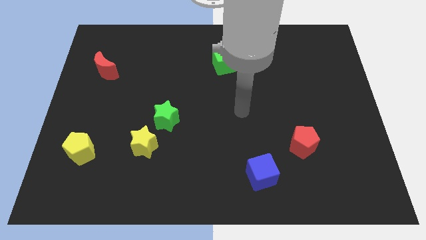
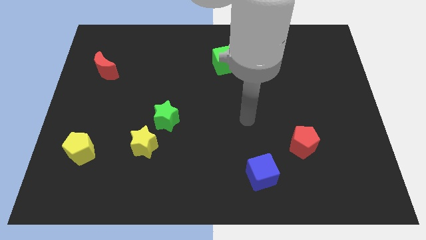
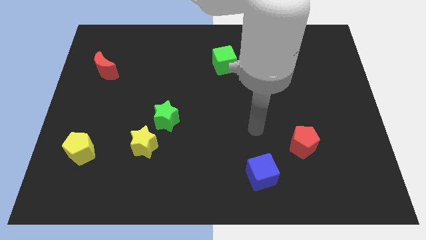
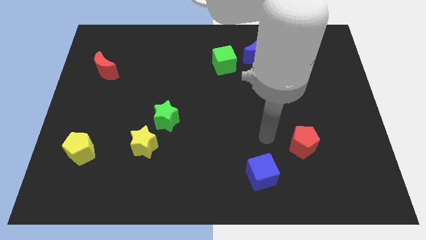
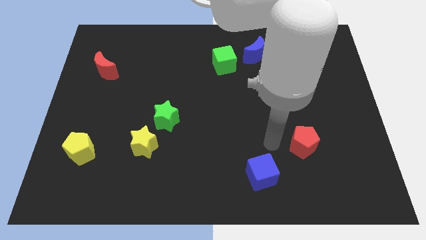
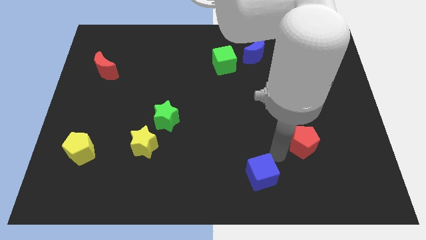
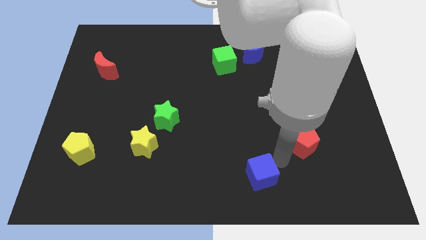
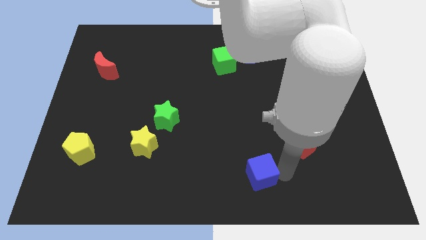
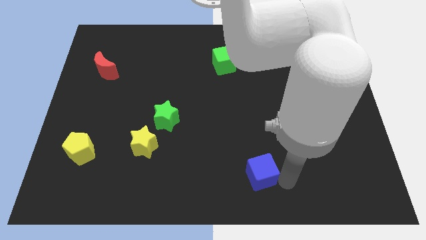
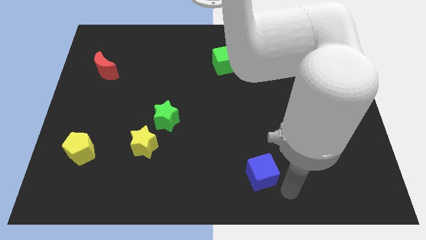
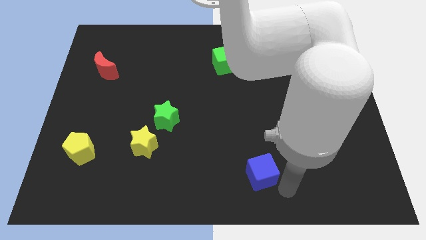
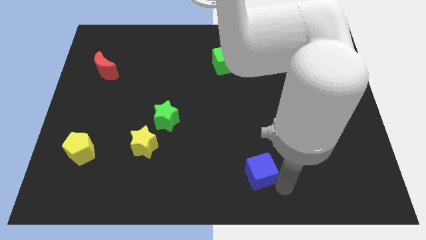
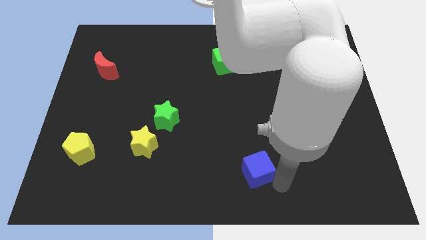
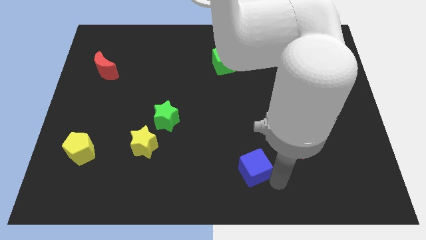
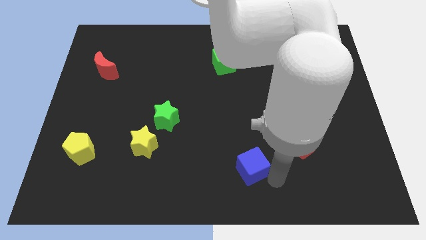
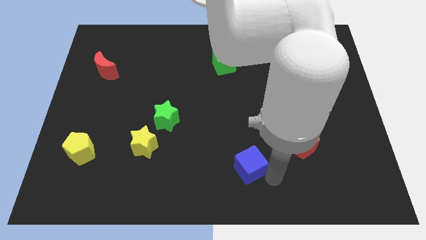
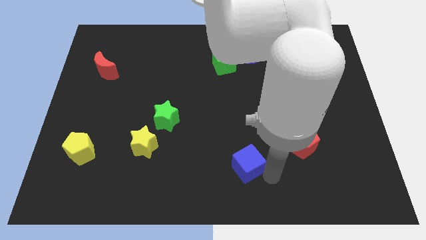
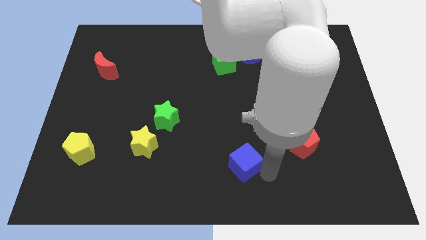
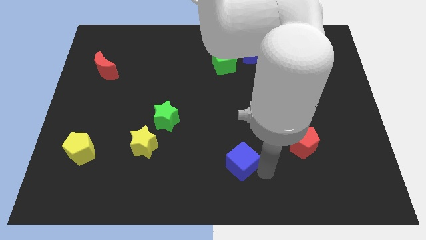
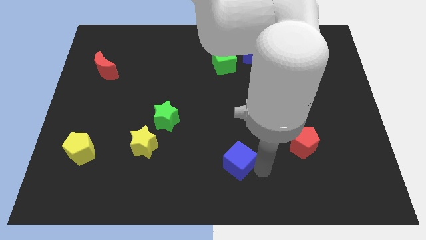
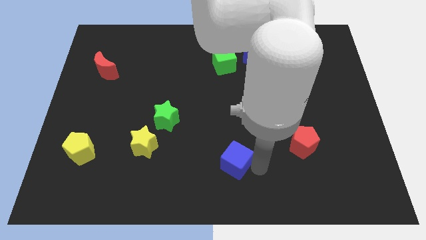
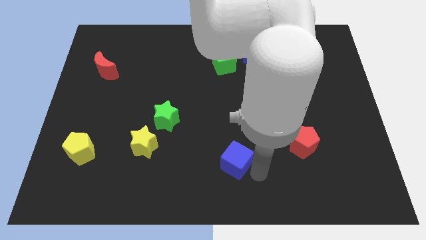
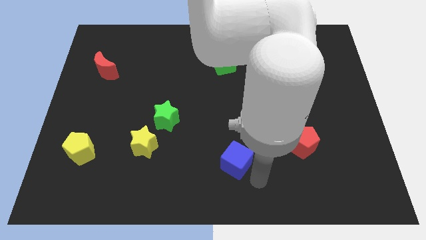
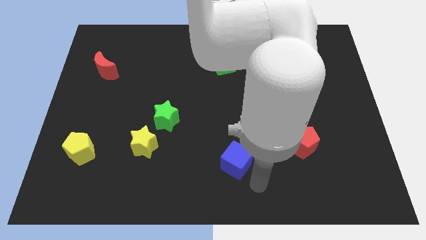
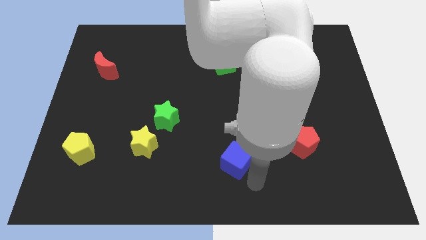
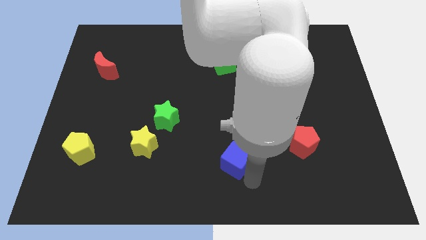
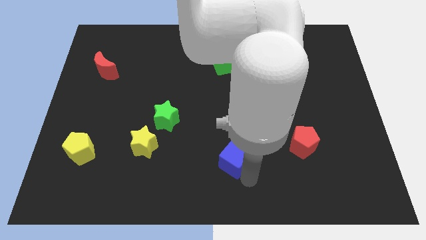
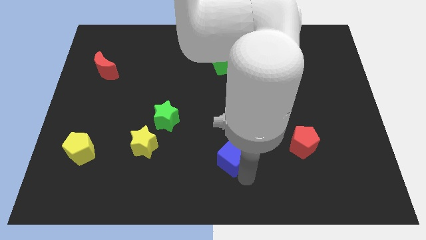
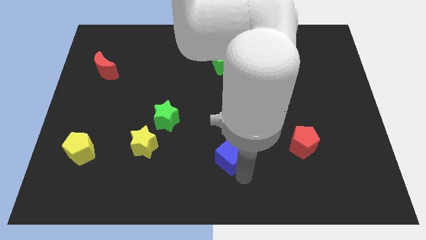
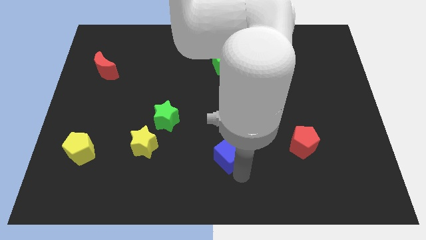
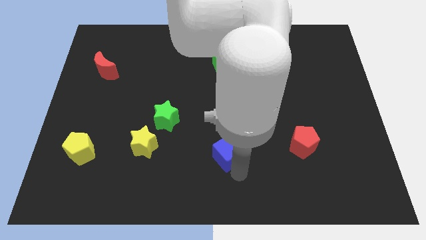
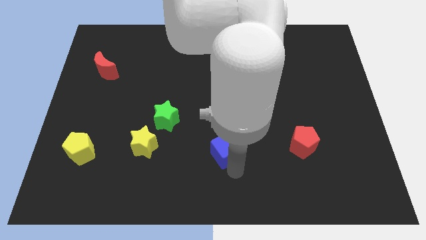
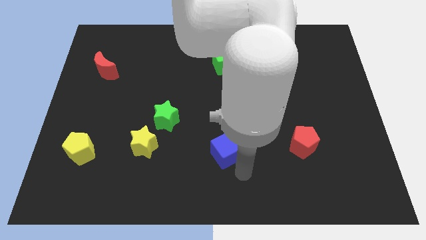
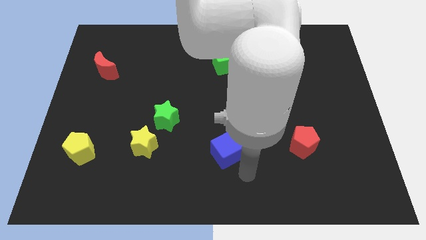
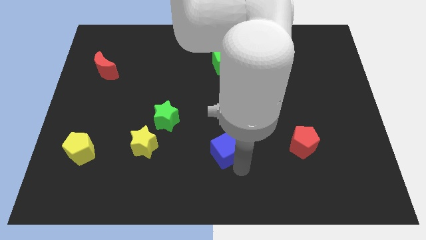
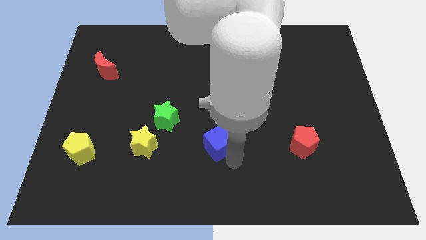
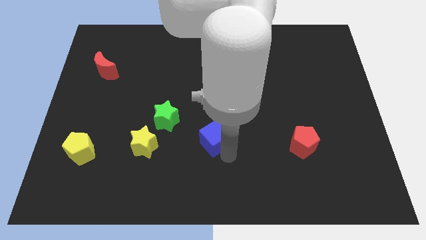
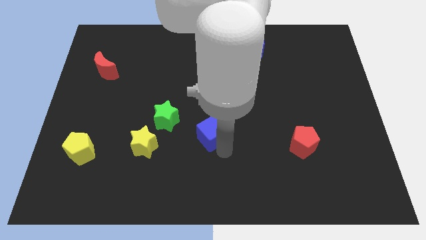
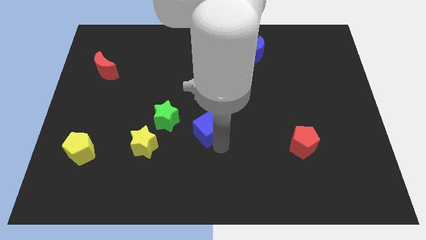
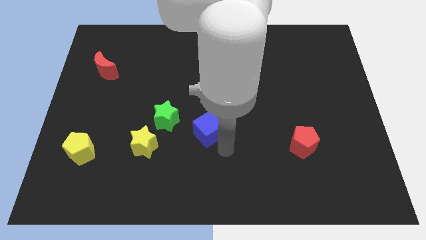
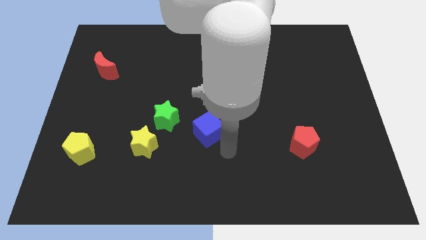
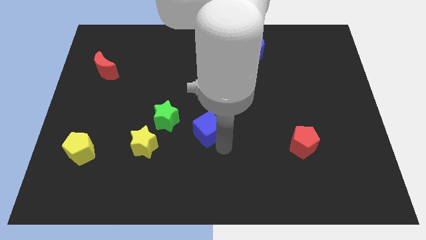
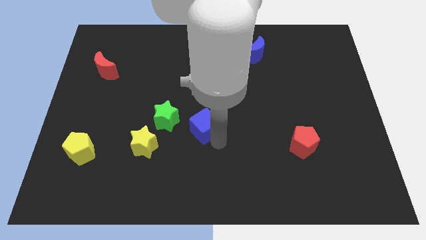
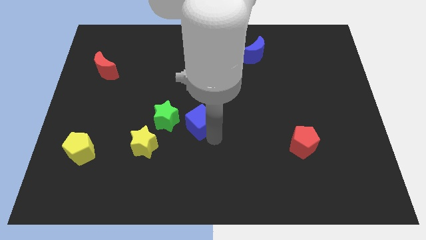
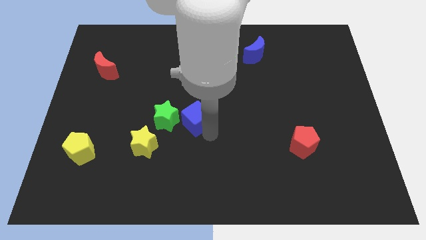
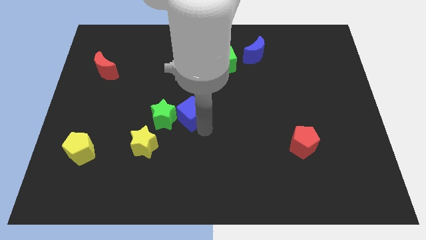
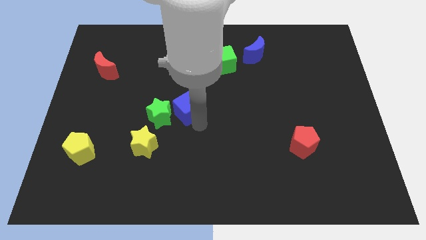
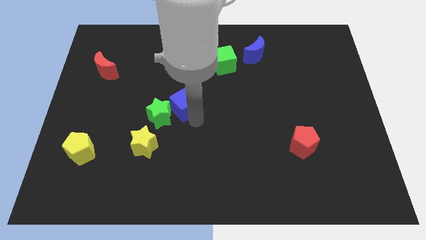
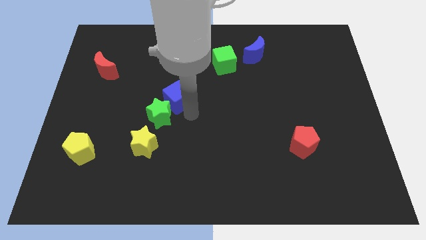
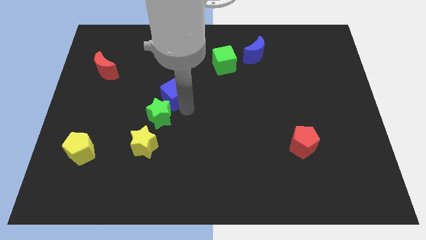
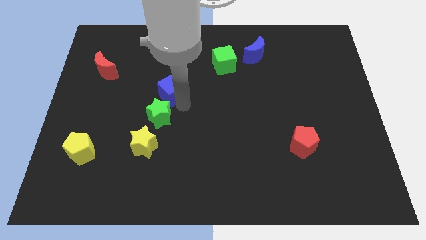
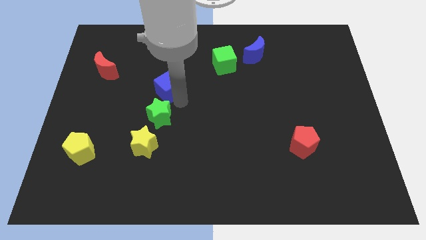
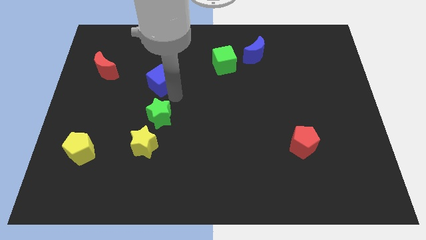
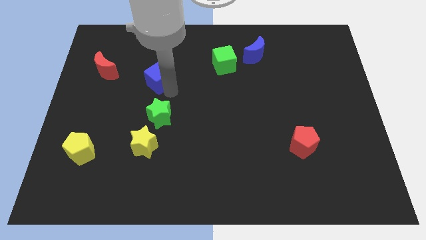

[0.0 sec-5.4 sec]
push the blue cube to the right side of the red moon

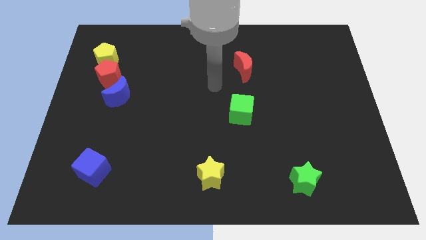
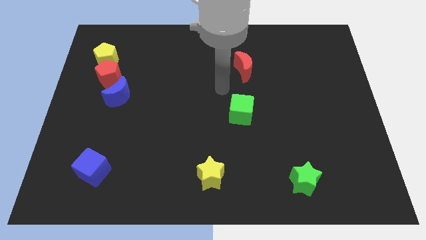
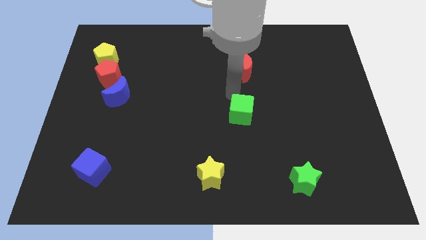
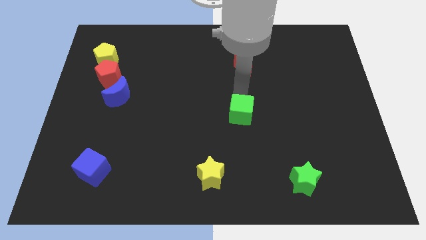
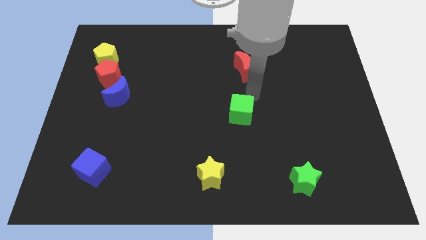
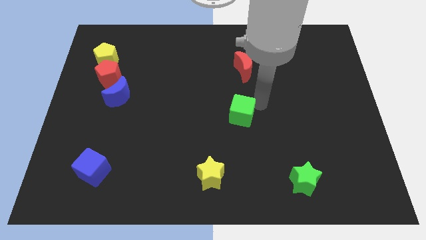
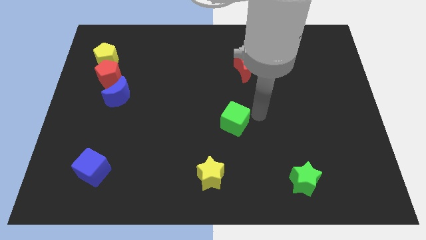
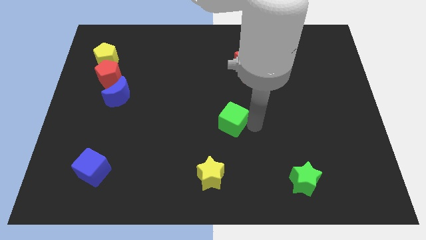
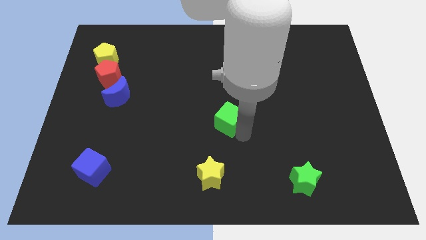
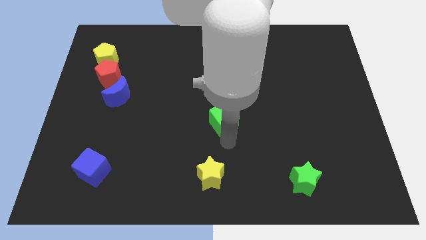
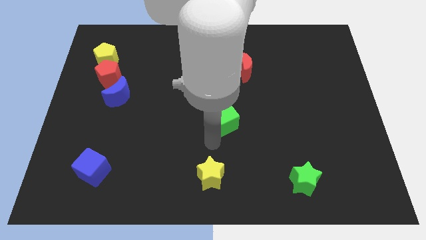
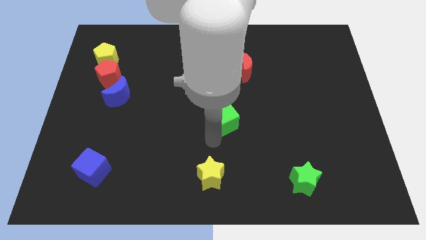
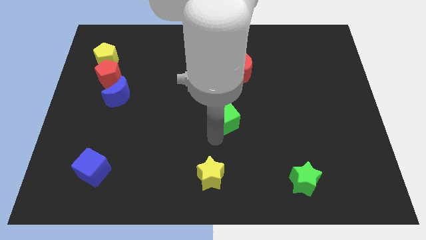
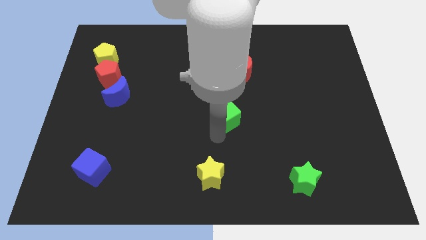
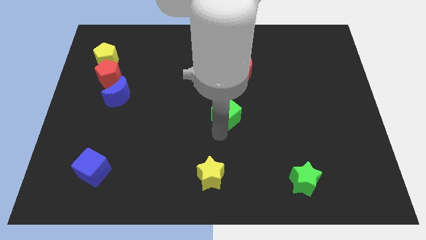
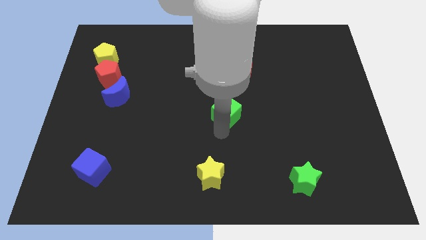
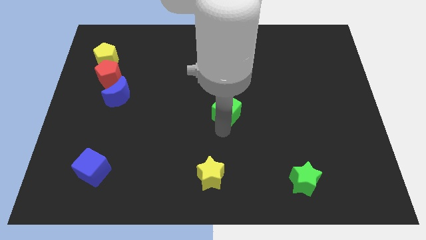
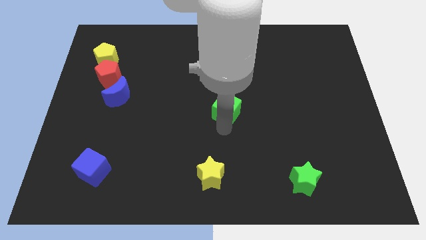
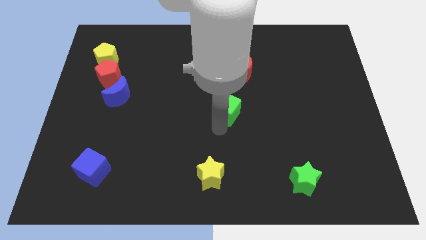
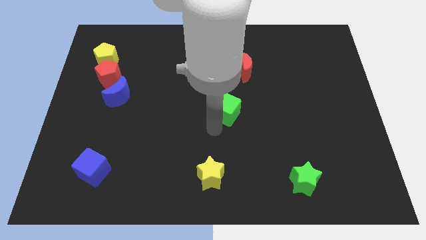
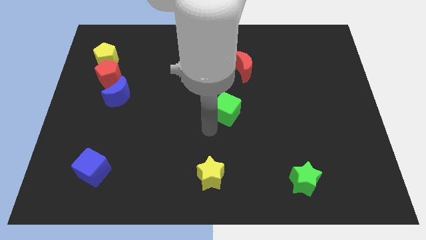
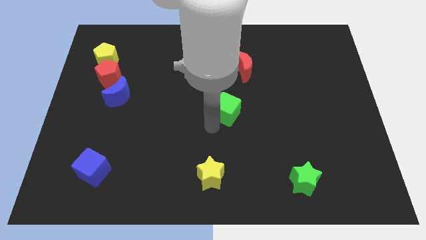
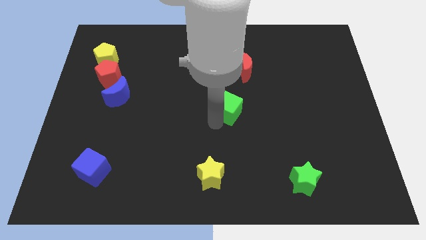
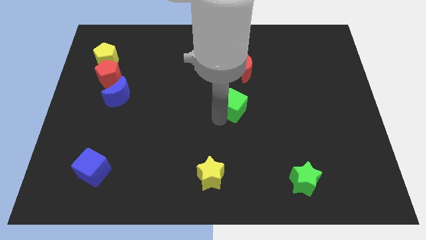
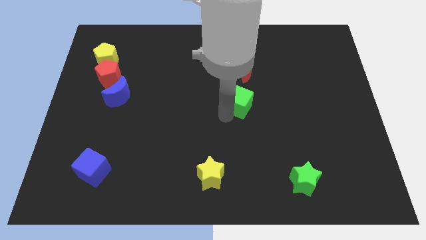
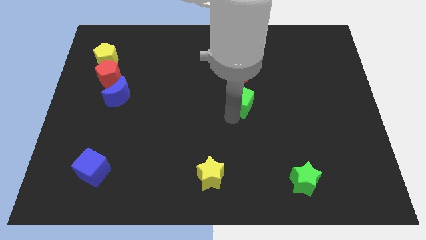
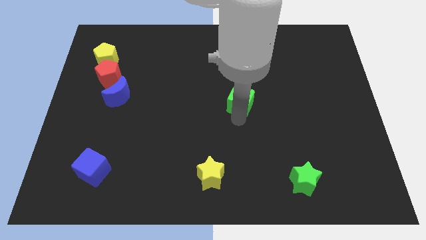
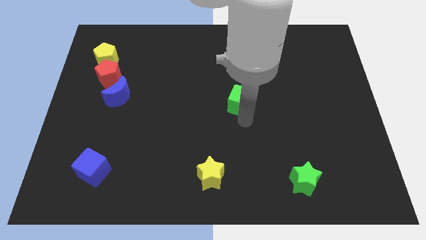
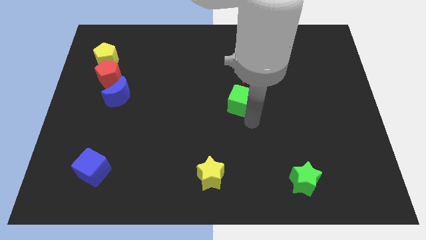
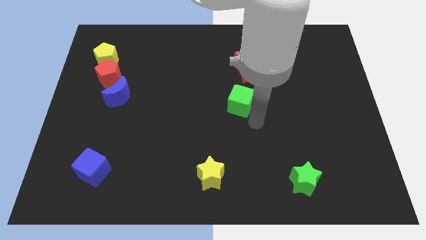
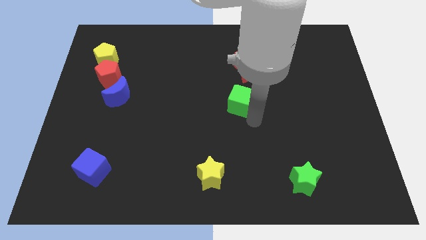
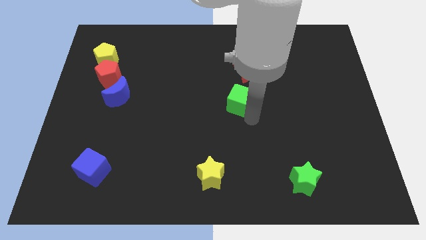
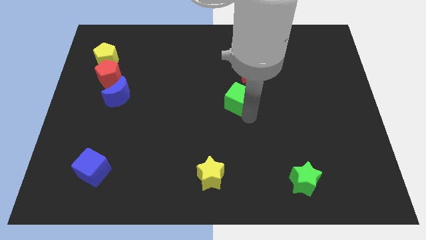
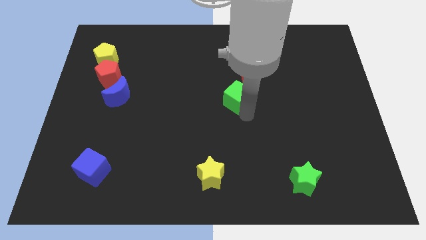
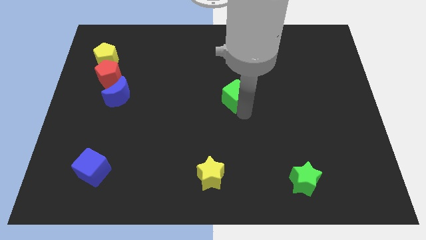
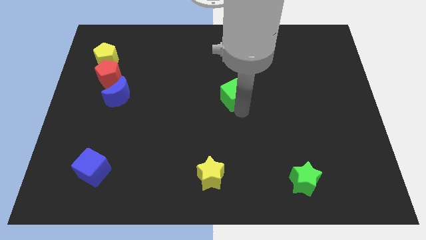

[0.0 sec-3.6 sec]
move the green cube to the bottom left side of the red moon
